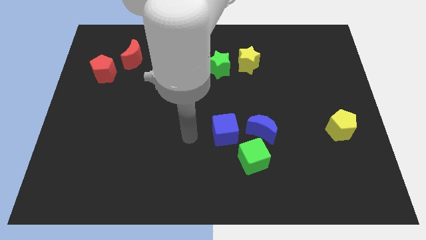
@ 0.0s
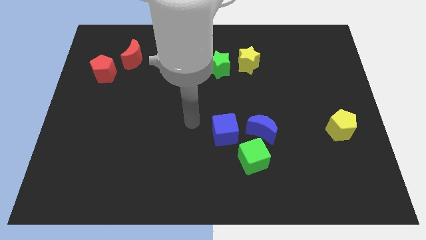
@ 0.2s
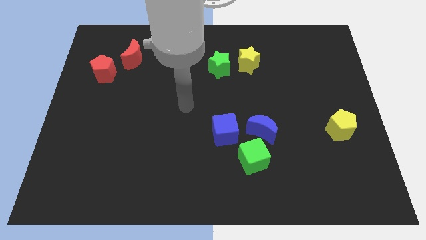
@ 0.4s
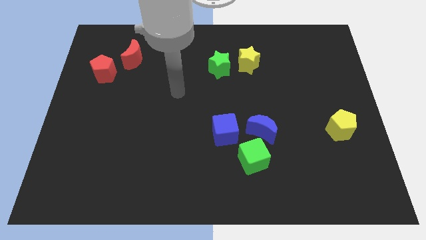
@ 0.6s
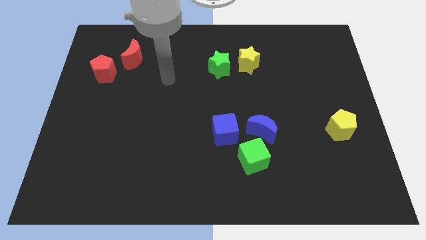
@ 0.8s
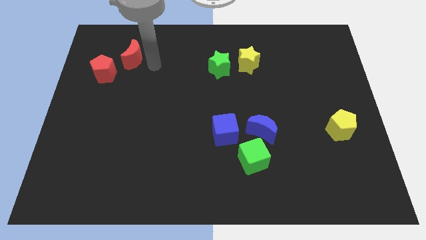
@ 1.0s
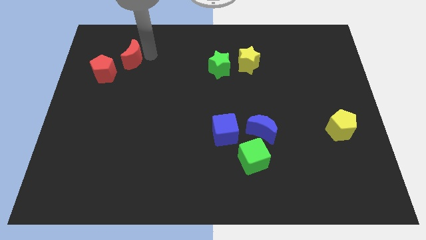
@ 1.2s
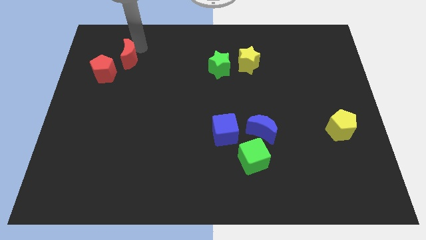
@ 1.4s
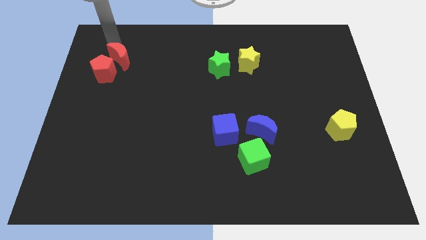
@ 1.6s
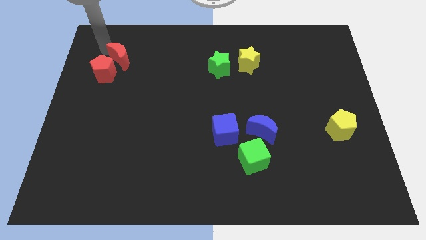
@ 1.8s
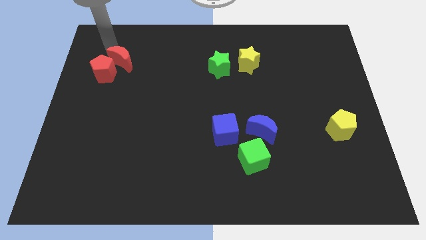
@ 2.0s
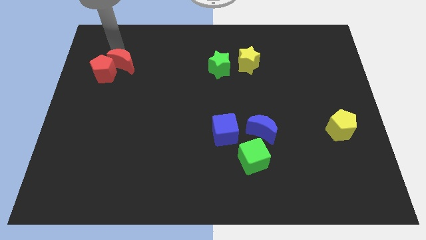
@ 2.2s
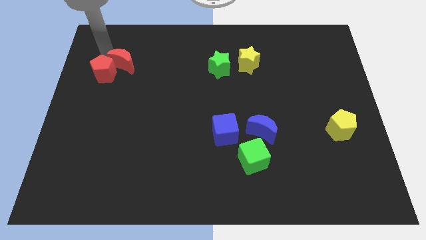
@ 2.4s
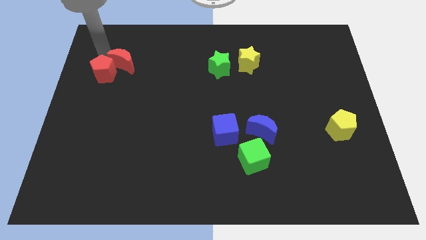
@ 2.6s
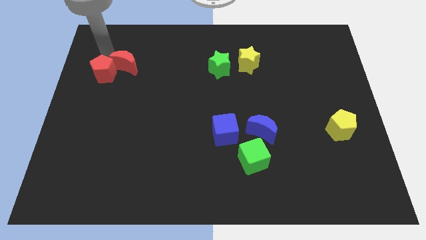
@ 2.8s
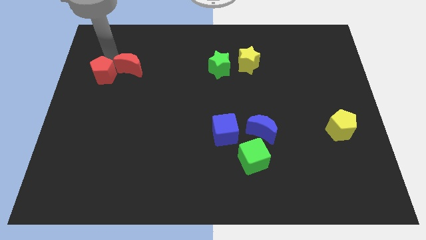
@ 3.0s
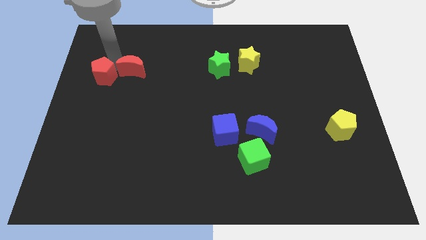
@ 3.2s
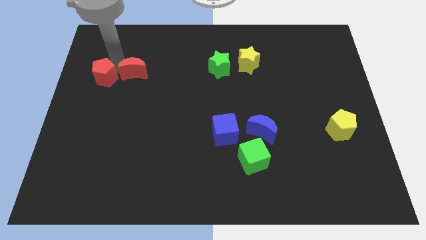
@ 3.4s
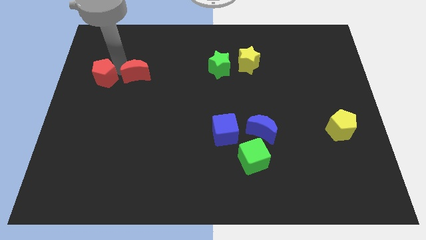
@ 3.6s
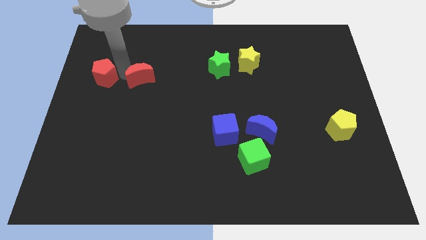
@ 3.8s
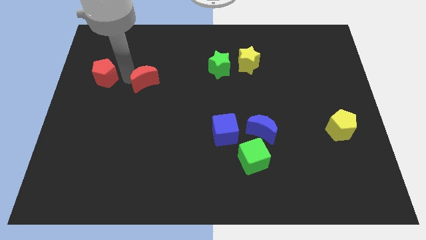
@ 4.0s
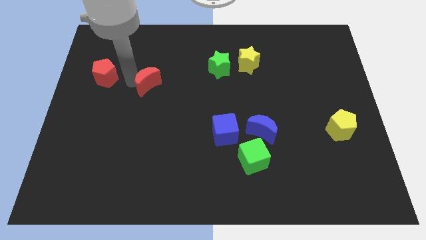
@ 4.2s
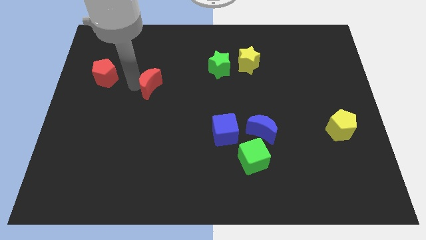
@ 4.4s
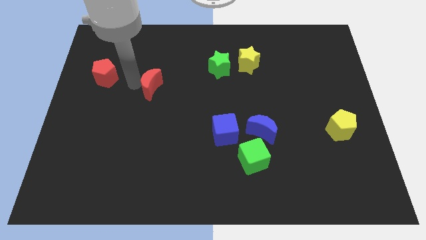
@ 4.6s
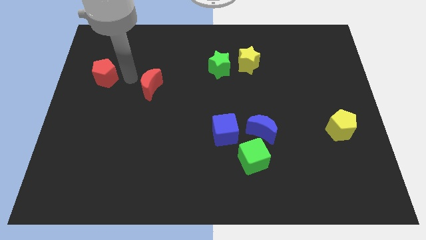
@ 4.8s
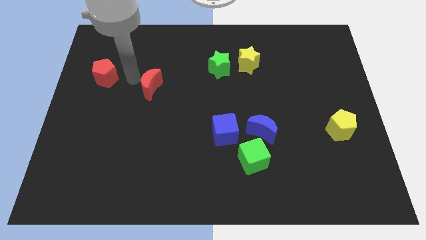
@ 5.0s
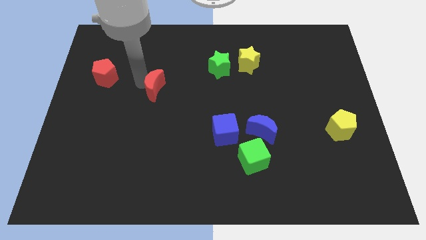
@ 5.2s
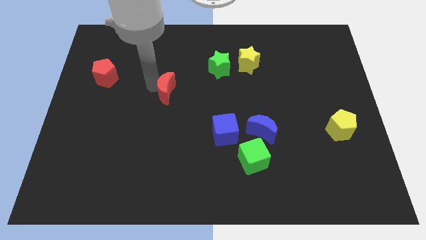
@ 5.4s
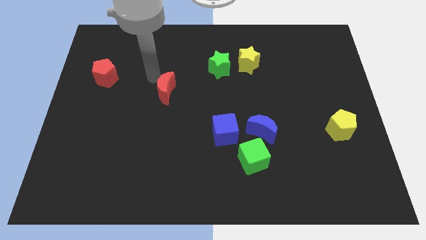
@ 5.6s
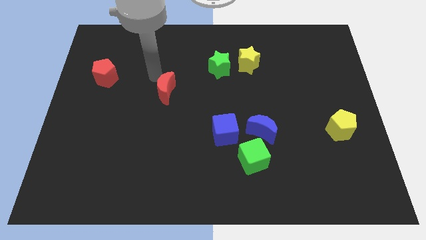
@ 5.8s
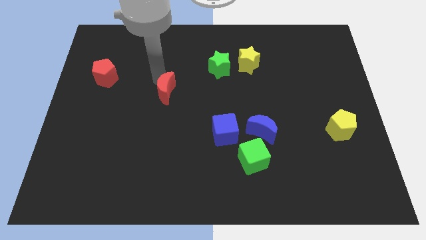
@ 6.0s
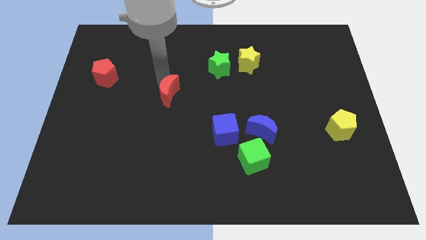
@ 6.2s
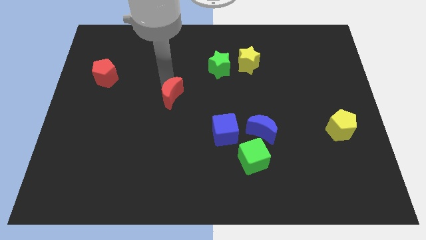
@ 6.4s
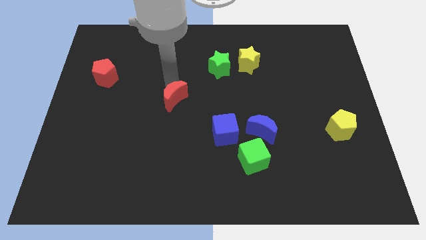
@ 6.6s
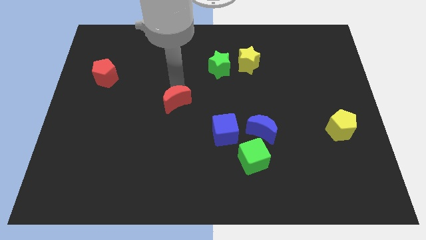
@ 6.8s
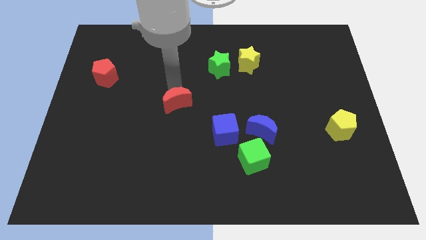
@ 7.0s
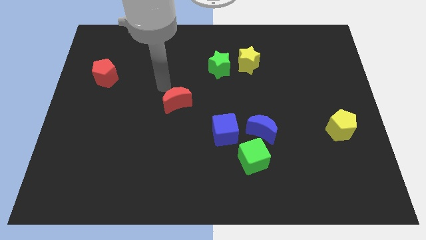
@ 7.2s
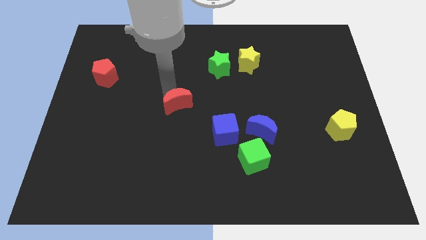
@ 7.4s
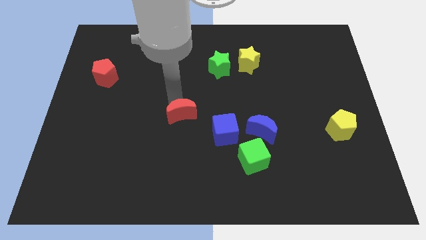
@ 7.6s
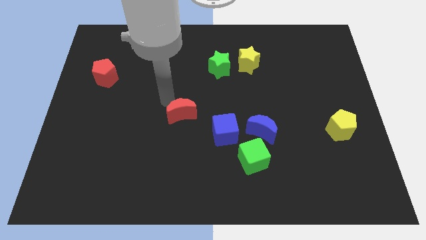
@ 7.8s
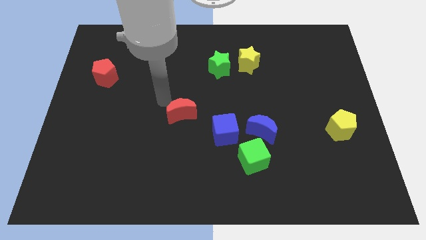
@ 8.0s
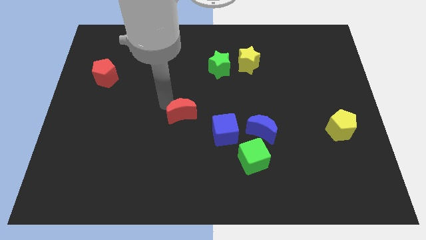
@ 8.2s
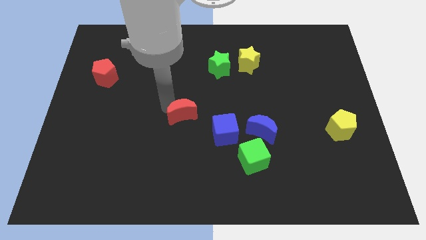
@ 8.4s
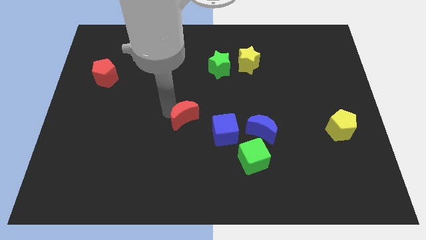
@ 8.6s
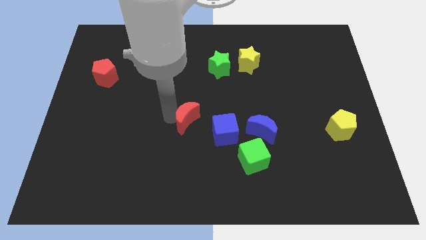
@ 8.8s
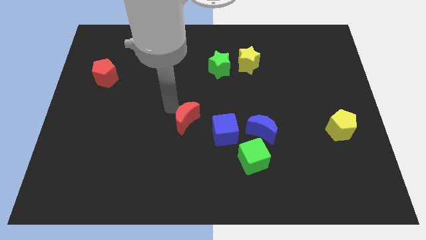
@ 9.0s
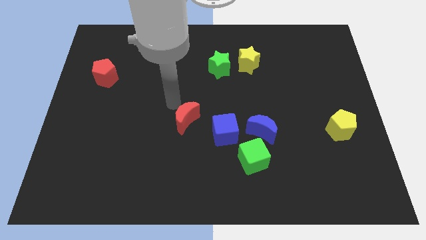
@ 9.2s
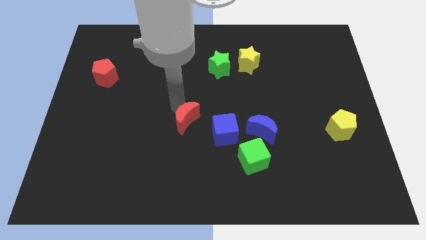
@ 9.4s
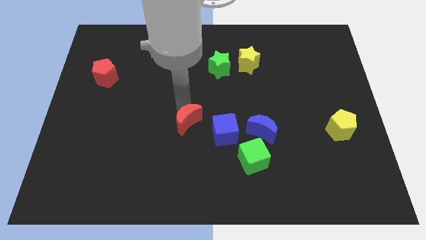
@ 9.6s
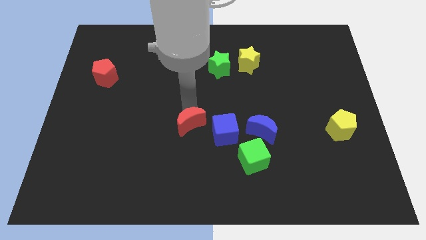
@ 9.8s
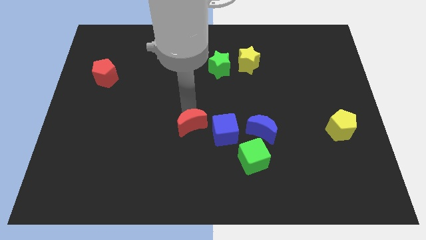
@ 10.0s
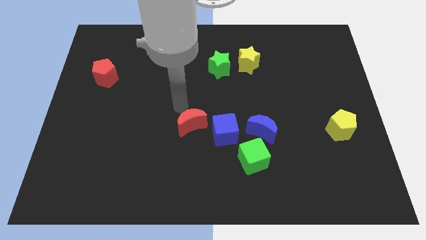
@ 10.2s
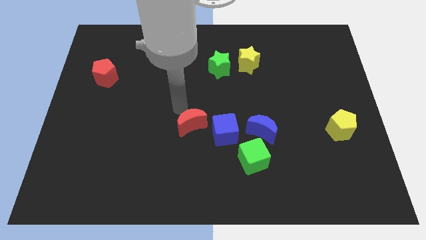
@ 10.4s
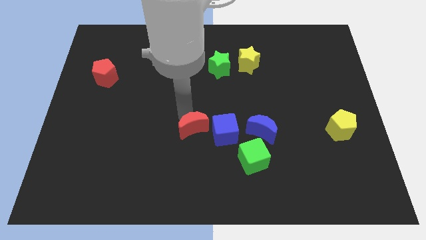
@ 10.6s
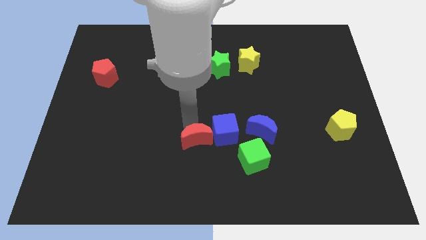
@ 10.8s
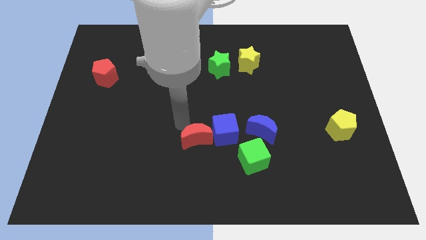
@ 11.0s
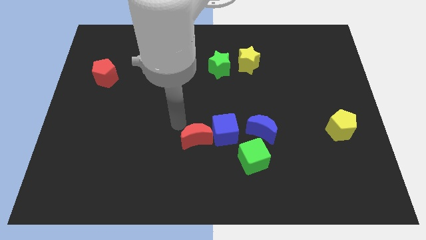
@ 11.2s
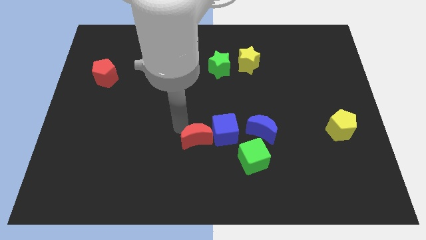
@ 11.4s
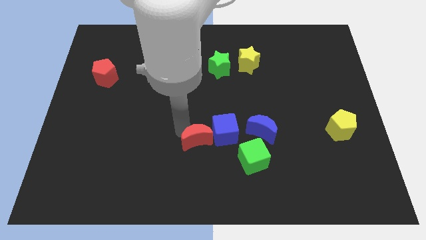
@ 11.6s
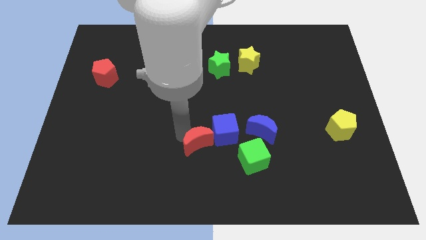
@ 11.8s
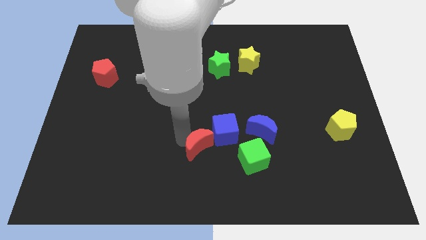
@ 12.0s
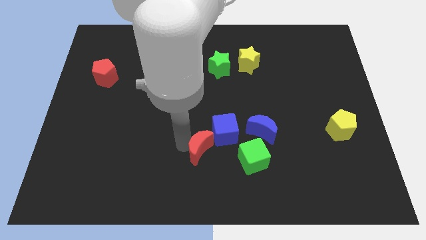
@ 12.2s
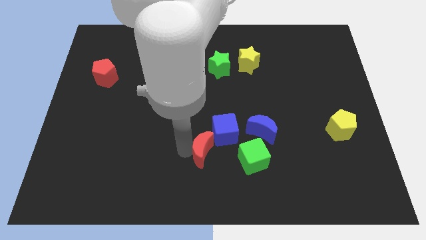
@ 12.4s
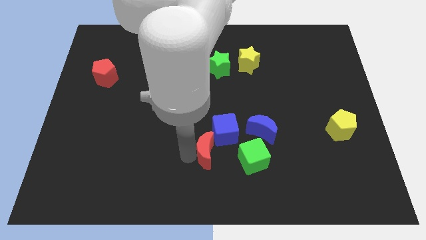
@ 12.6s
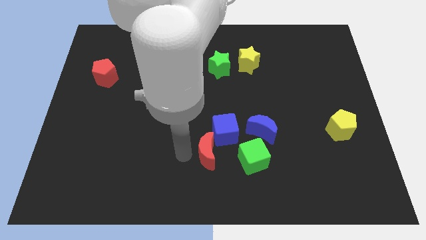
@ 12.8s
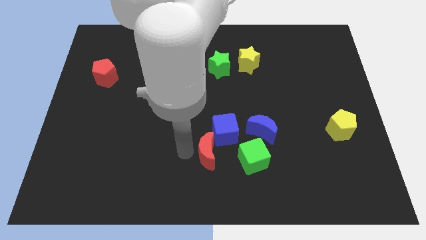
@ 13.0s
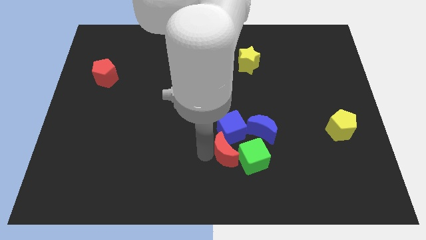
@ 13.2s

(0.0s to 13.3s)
slide the red moon next to the green cube

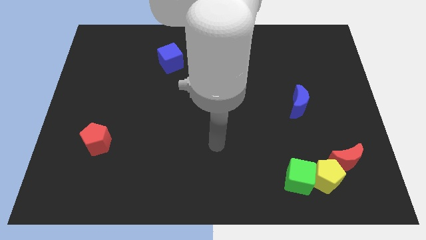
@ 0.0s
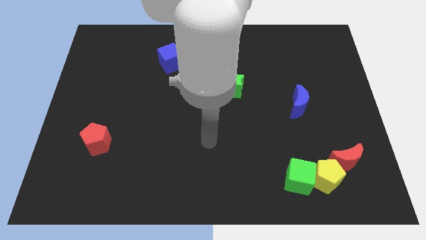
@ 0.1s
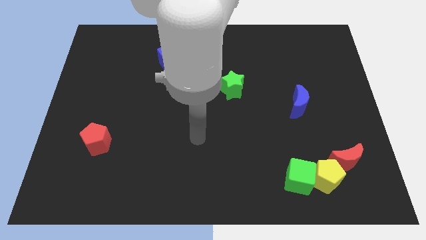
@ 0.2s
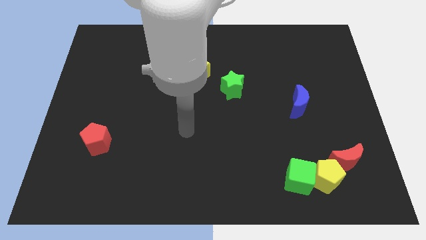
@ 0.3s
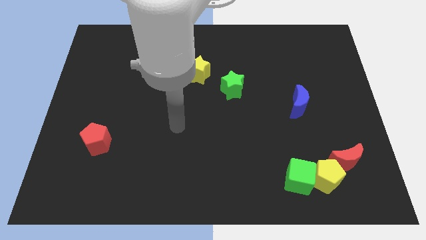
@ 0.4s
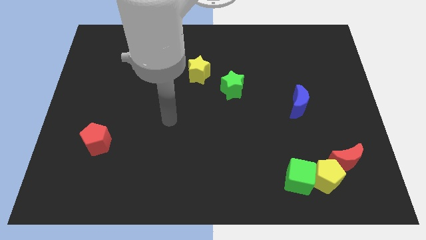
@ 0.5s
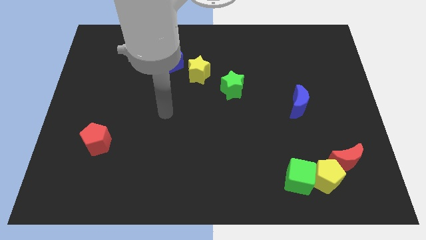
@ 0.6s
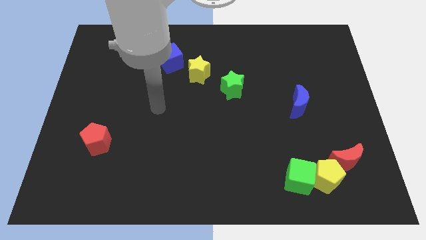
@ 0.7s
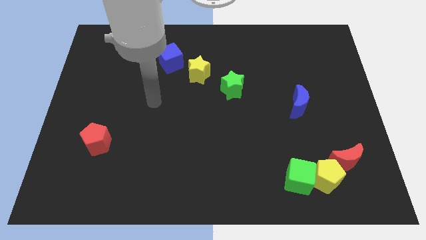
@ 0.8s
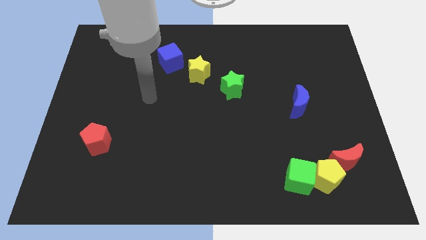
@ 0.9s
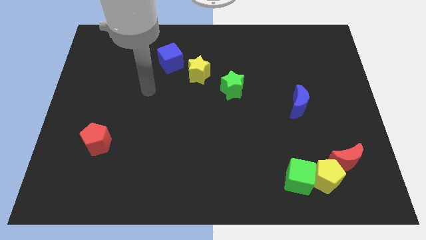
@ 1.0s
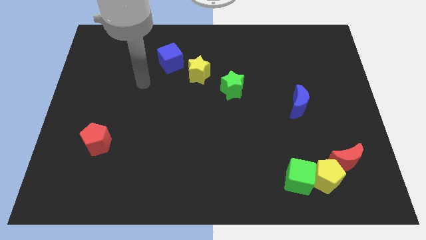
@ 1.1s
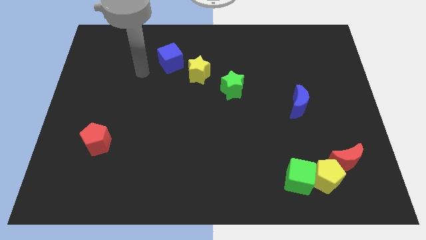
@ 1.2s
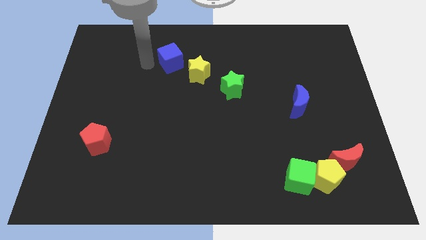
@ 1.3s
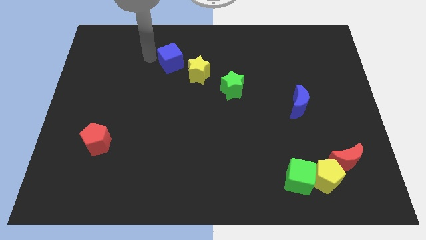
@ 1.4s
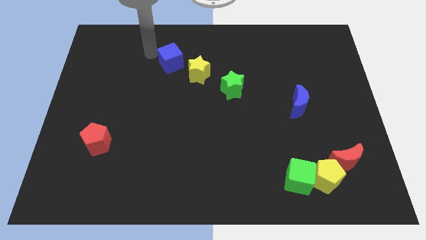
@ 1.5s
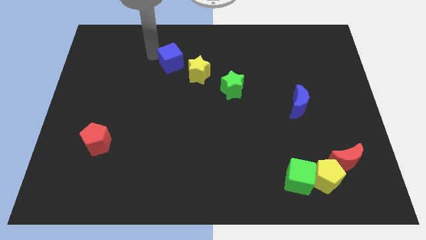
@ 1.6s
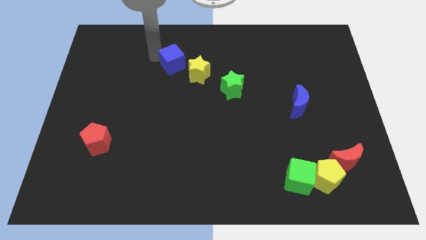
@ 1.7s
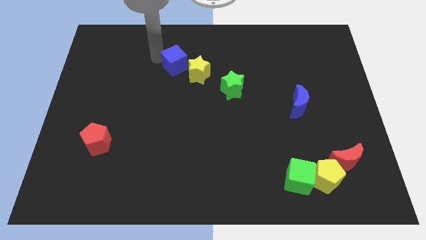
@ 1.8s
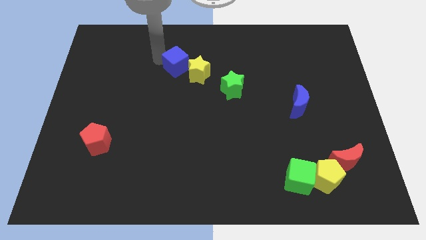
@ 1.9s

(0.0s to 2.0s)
put the blue cube to the yellow star
